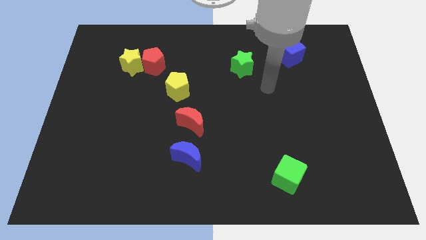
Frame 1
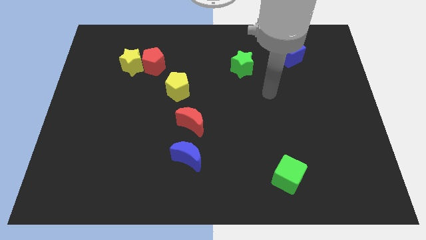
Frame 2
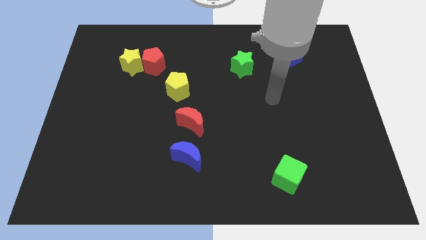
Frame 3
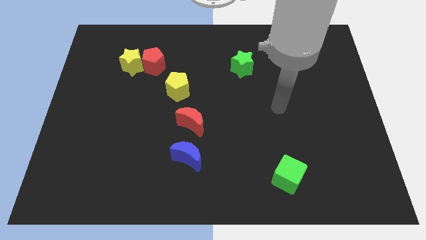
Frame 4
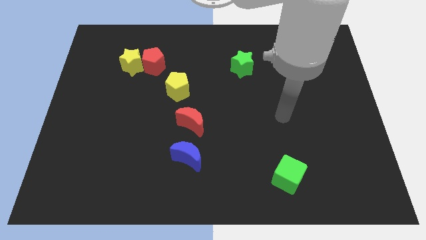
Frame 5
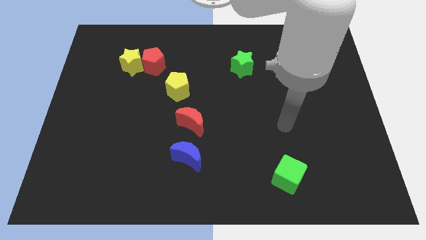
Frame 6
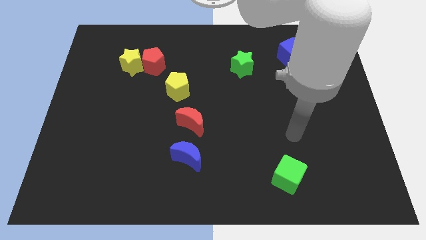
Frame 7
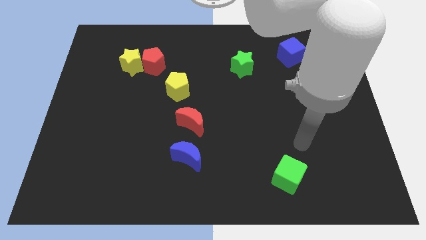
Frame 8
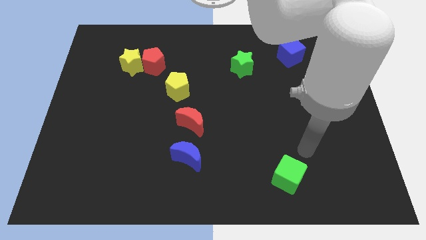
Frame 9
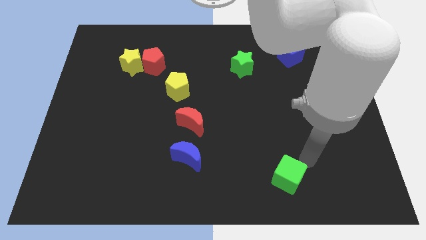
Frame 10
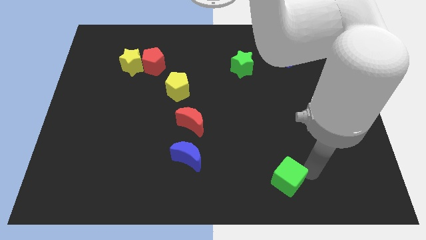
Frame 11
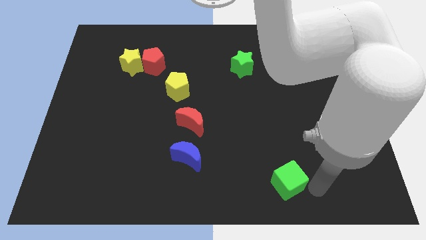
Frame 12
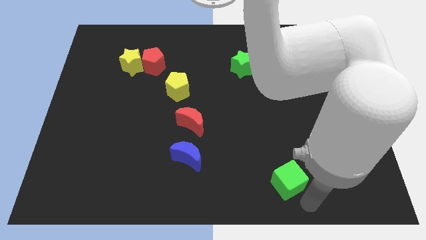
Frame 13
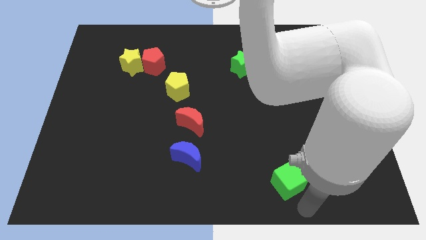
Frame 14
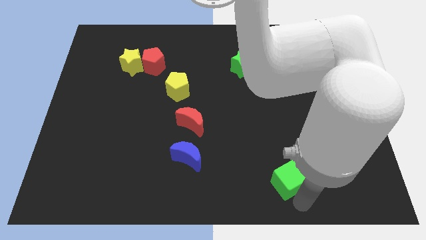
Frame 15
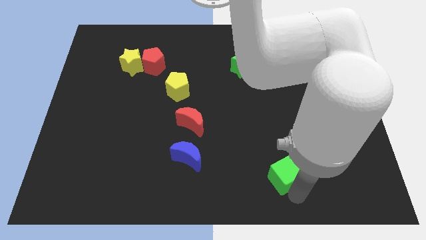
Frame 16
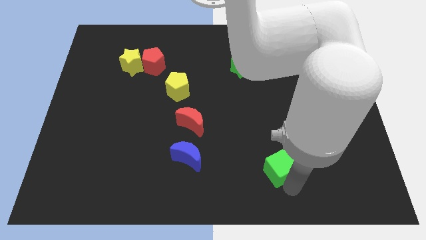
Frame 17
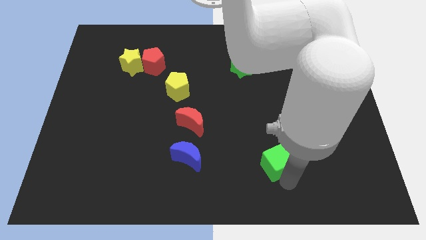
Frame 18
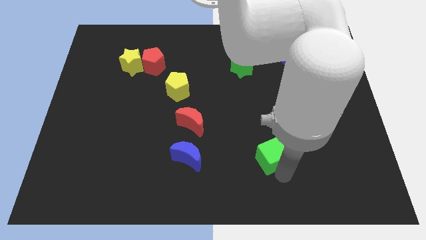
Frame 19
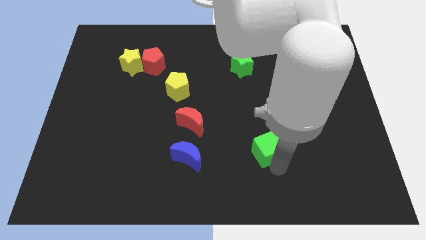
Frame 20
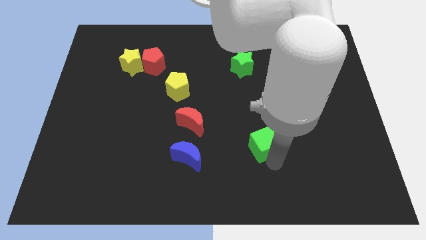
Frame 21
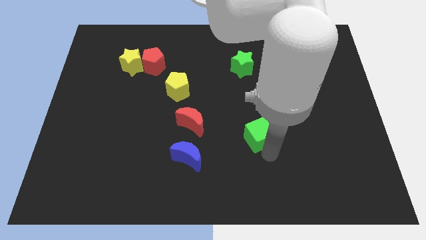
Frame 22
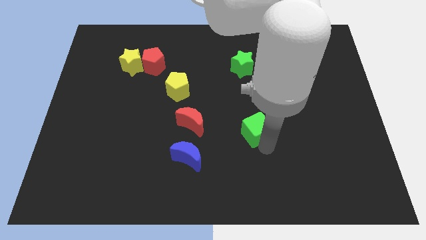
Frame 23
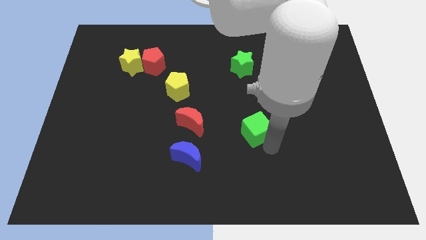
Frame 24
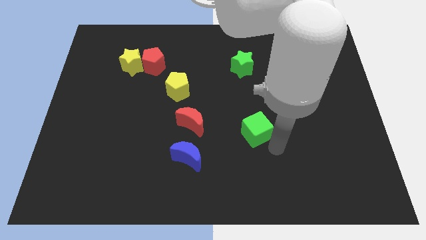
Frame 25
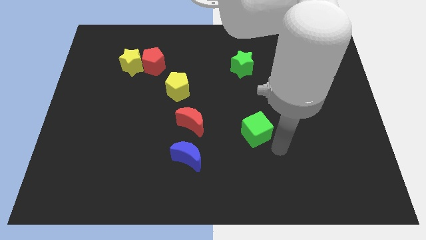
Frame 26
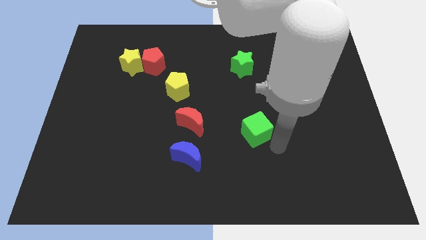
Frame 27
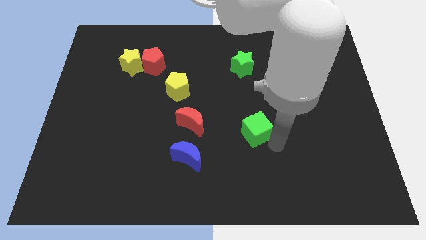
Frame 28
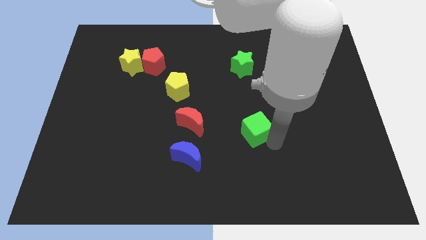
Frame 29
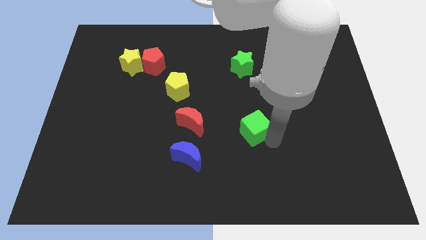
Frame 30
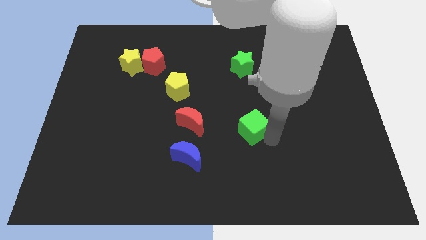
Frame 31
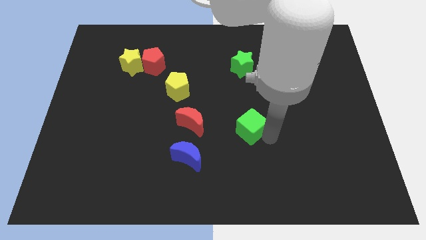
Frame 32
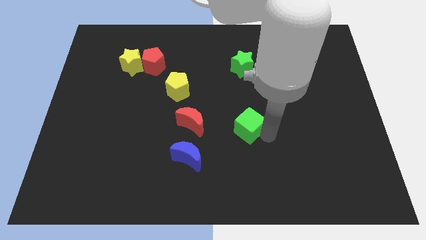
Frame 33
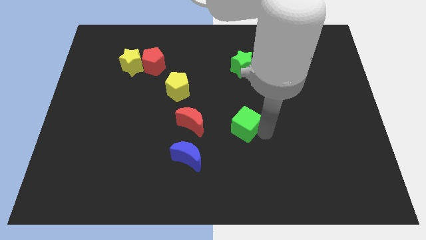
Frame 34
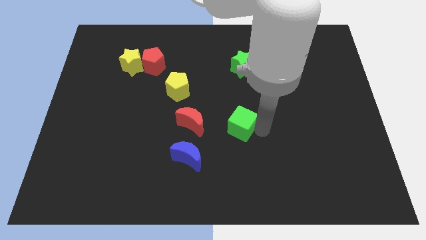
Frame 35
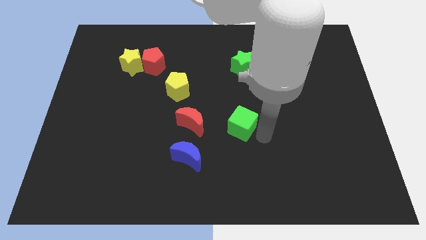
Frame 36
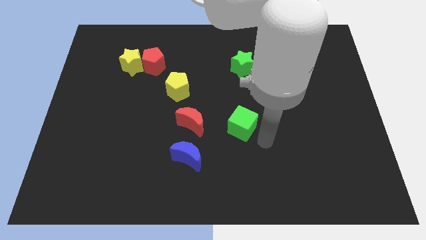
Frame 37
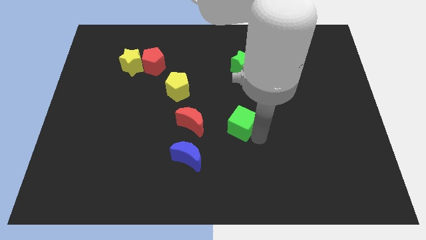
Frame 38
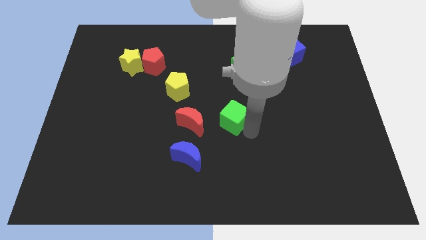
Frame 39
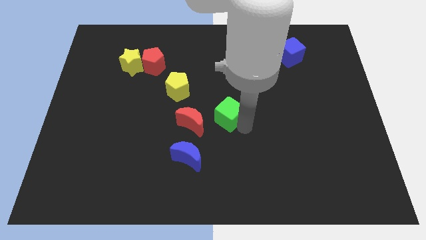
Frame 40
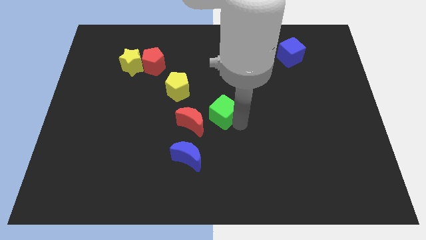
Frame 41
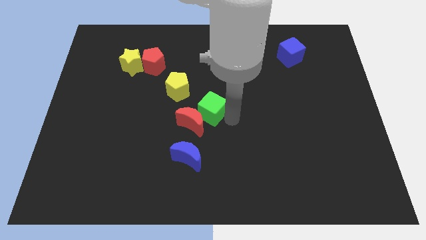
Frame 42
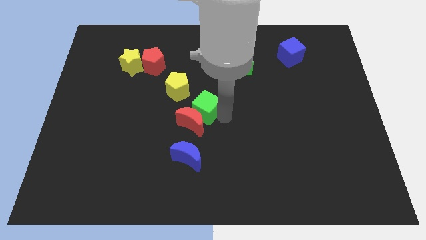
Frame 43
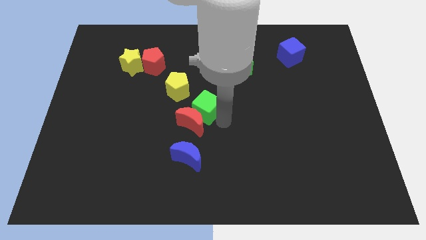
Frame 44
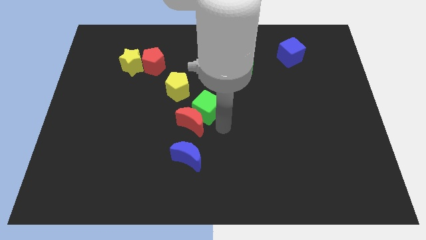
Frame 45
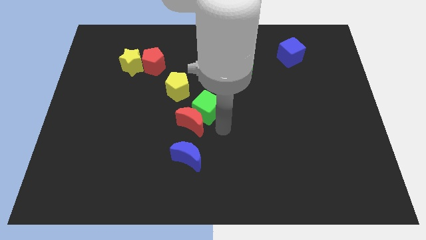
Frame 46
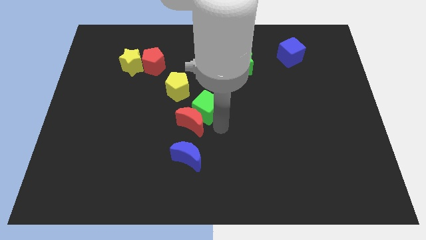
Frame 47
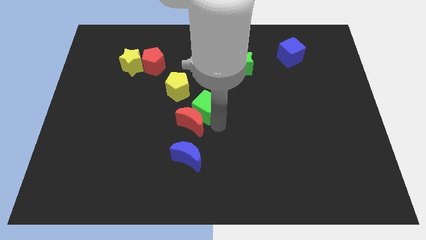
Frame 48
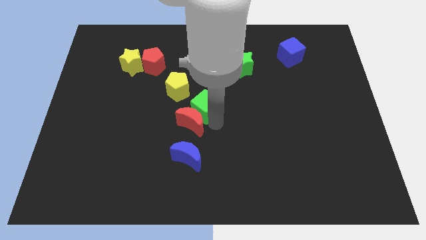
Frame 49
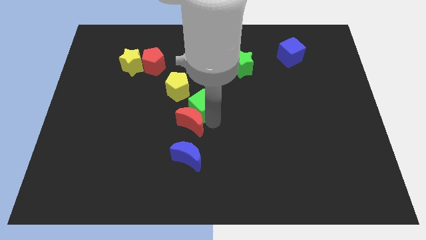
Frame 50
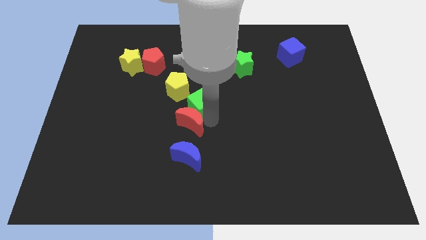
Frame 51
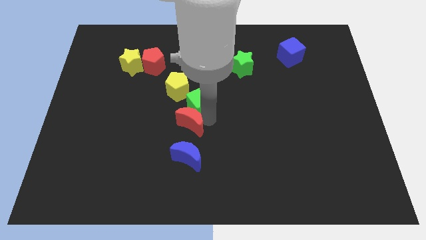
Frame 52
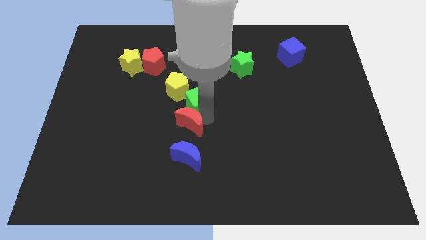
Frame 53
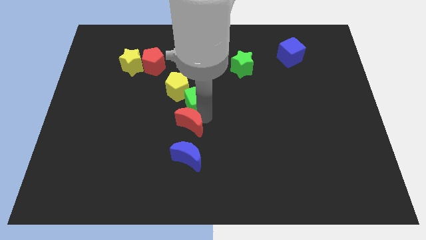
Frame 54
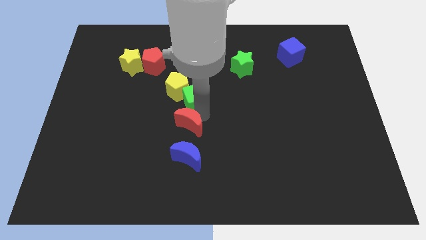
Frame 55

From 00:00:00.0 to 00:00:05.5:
put the green cube next to the yellow pentagon

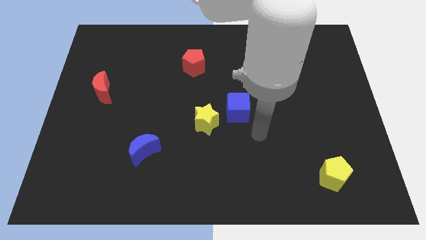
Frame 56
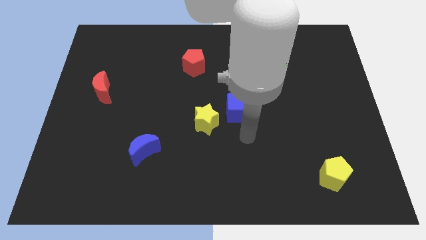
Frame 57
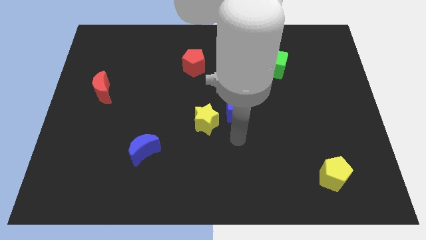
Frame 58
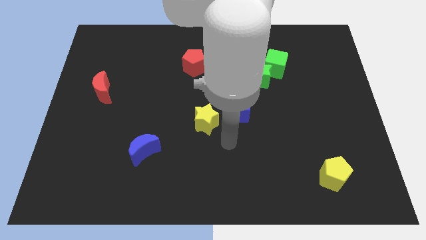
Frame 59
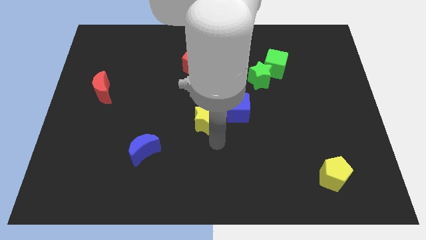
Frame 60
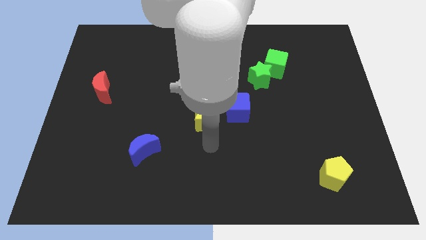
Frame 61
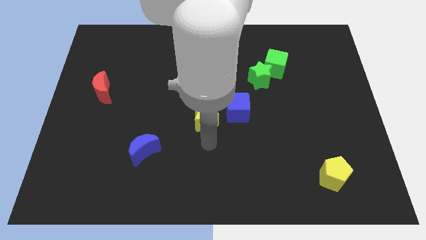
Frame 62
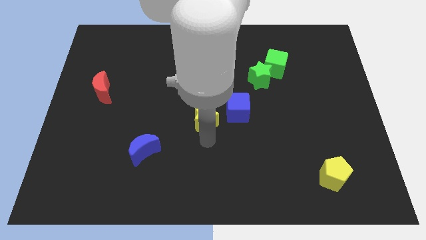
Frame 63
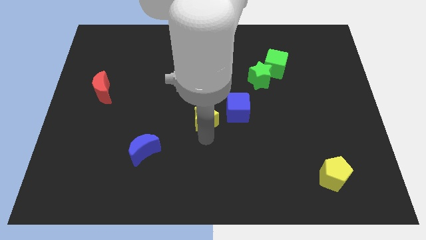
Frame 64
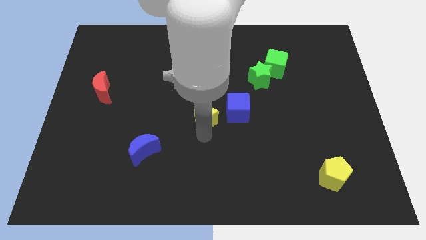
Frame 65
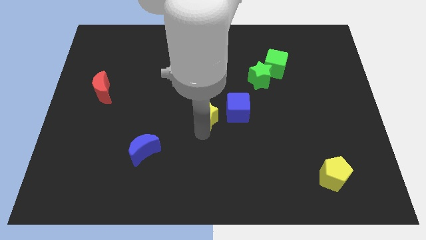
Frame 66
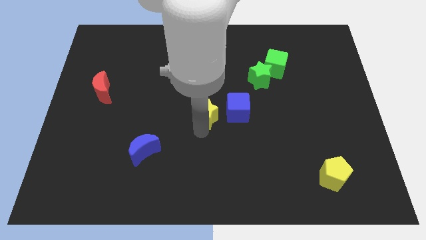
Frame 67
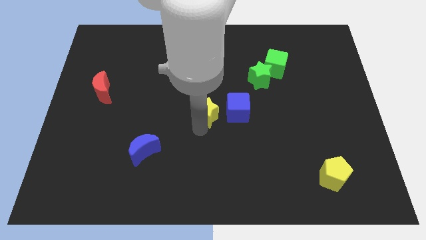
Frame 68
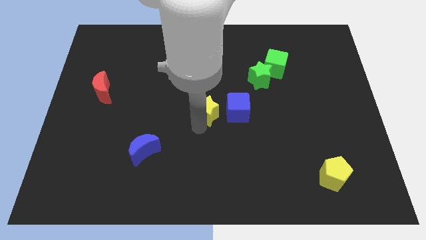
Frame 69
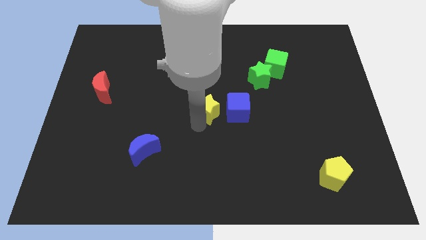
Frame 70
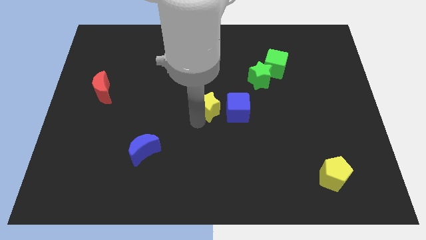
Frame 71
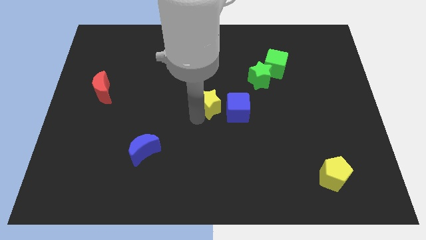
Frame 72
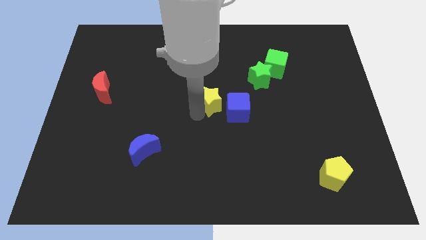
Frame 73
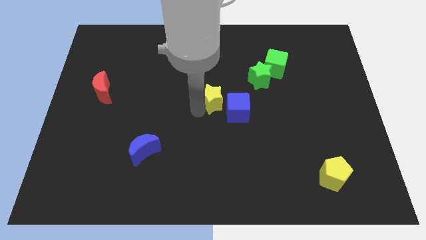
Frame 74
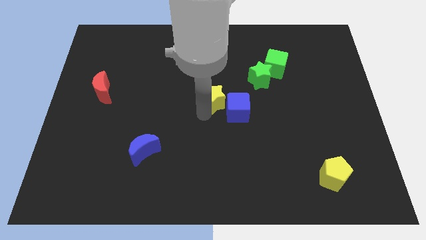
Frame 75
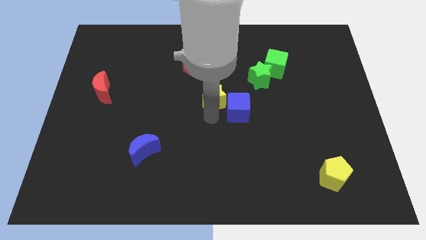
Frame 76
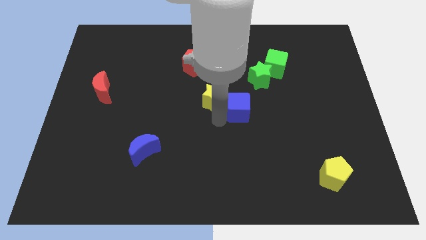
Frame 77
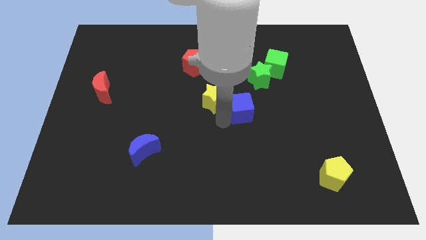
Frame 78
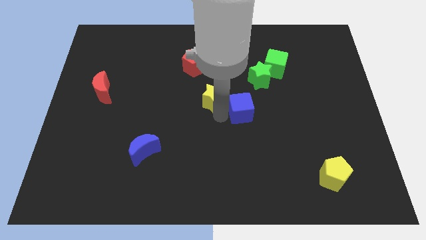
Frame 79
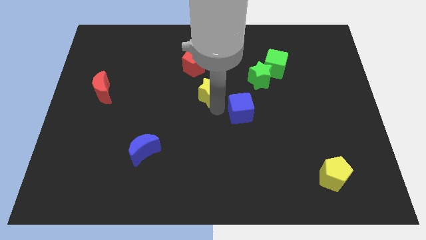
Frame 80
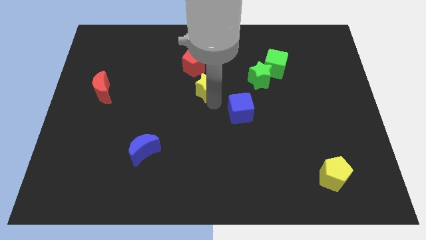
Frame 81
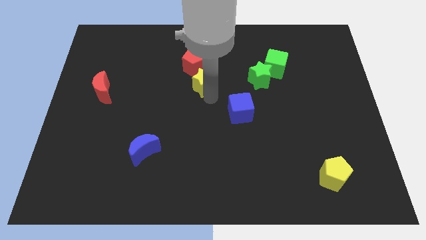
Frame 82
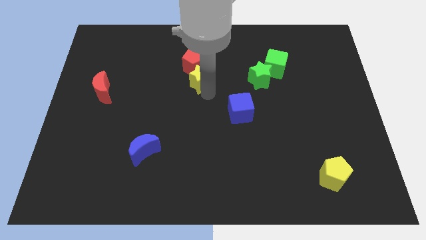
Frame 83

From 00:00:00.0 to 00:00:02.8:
slide the yellow star towards the red pentagon
